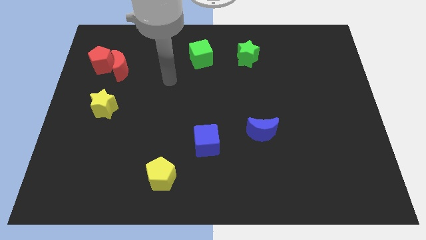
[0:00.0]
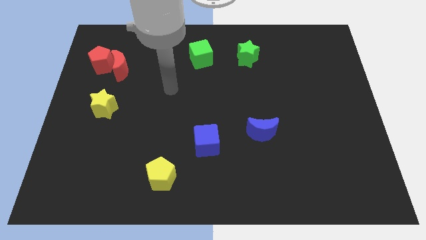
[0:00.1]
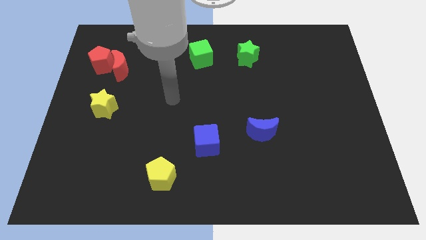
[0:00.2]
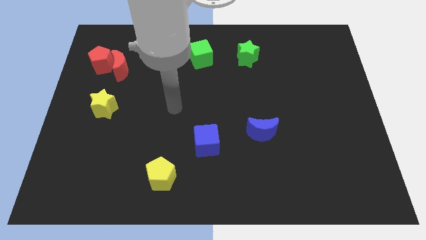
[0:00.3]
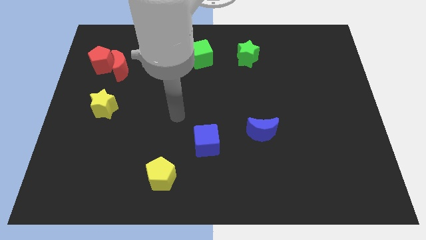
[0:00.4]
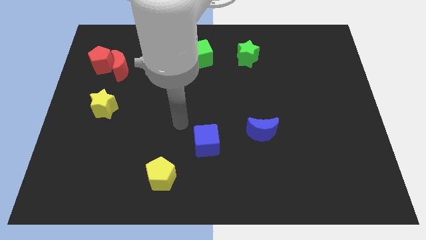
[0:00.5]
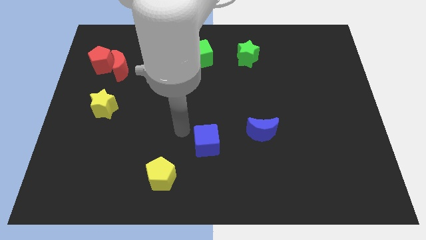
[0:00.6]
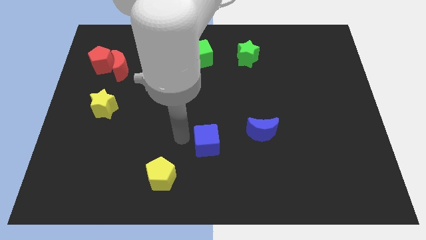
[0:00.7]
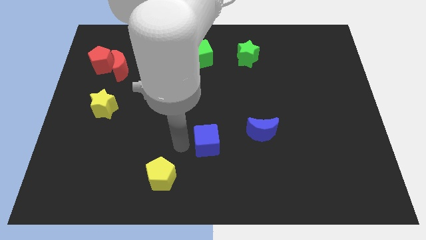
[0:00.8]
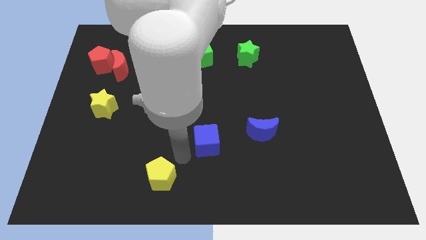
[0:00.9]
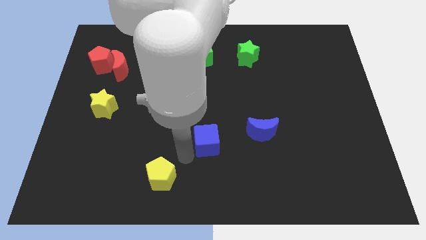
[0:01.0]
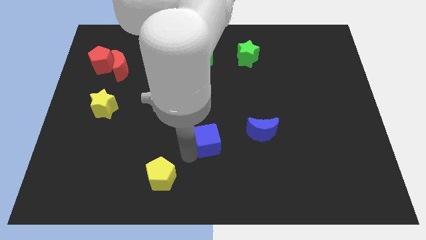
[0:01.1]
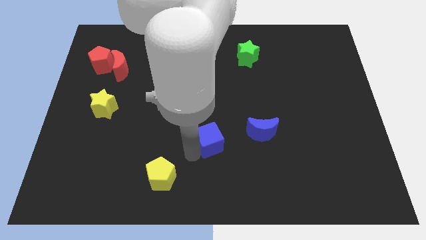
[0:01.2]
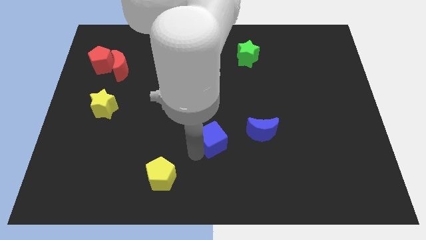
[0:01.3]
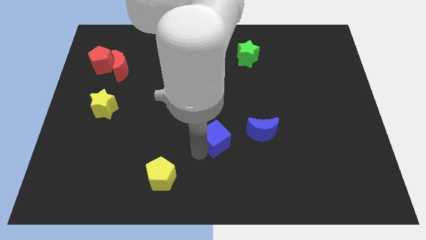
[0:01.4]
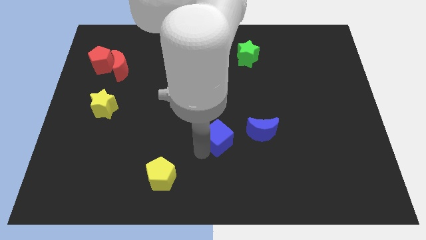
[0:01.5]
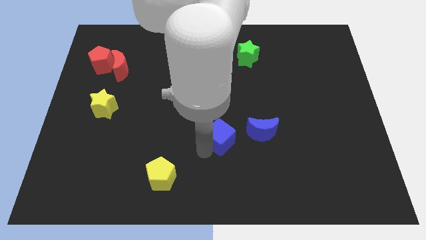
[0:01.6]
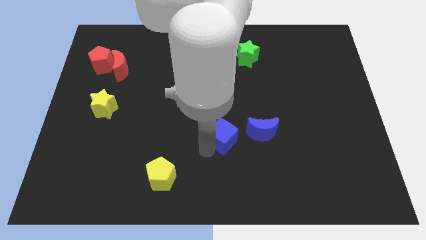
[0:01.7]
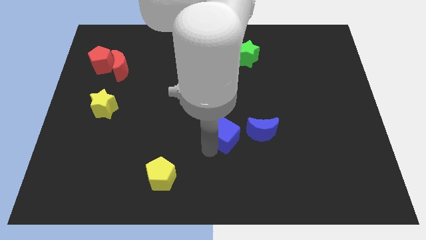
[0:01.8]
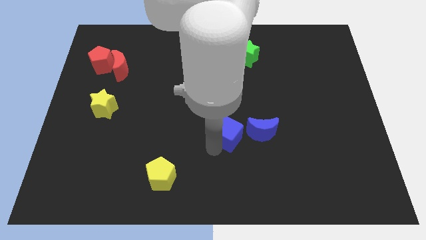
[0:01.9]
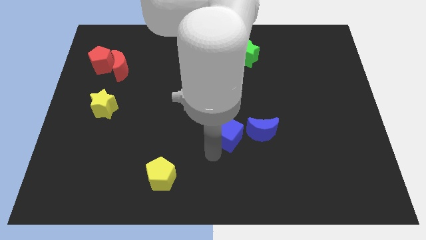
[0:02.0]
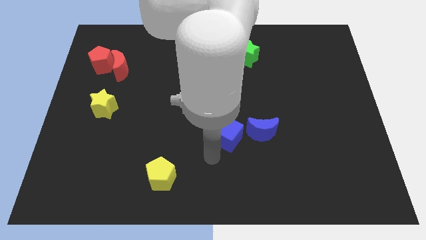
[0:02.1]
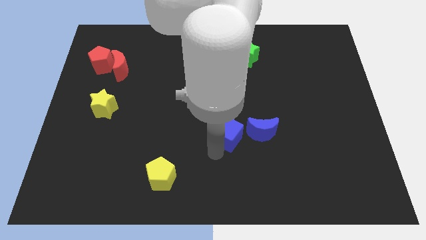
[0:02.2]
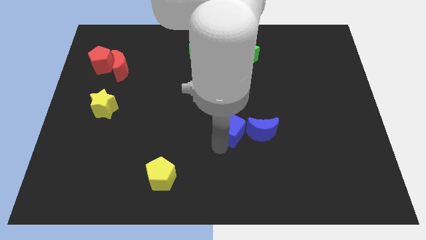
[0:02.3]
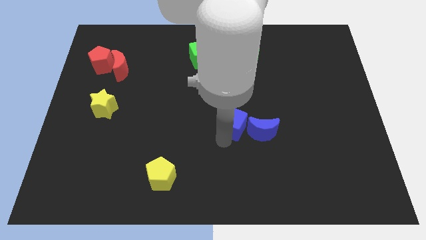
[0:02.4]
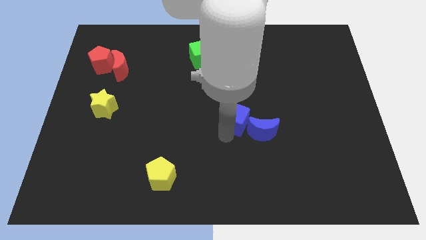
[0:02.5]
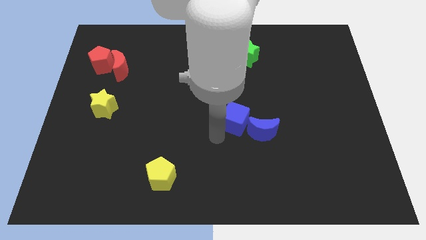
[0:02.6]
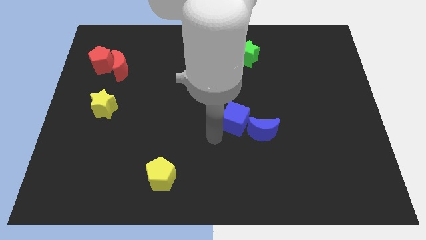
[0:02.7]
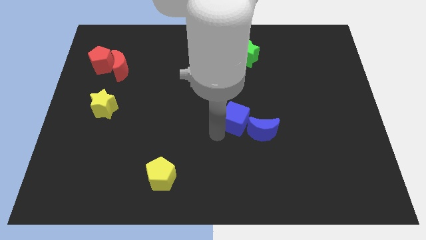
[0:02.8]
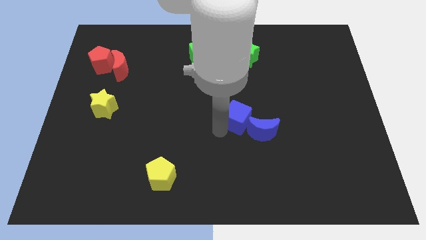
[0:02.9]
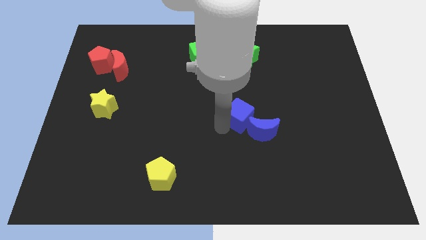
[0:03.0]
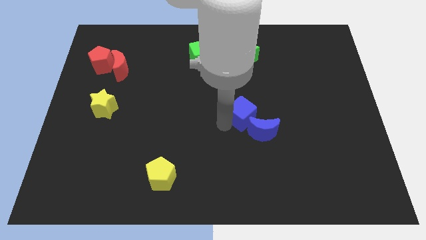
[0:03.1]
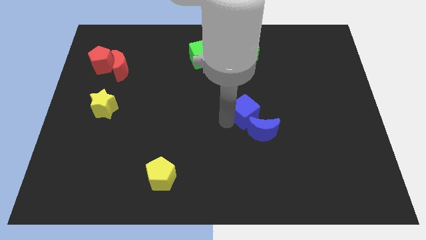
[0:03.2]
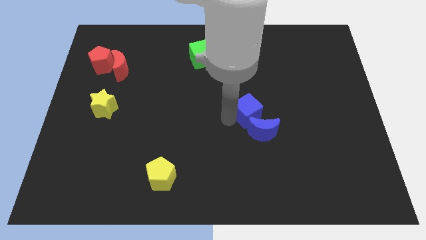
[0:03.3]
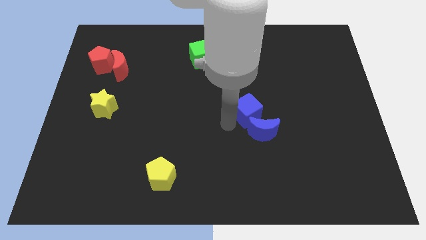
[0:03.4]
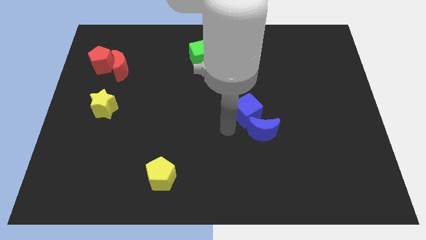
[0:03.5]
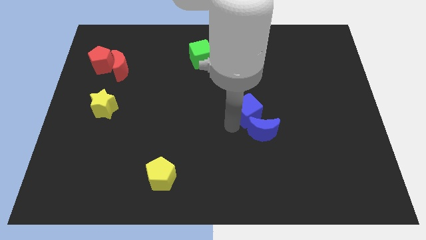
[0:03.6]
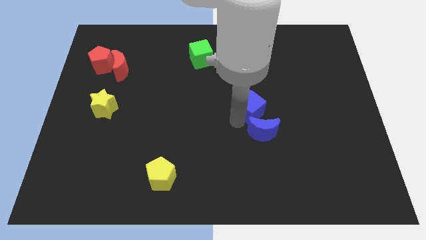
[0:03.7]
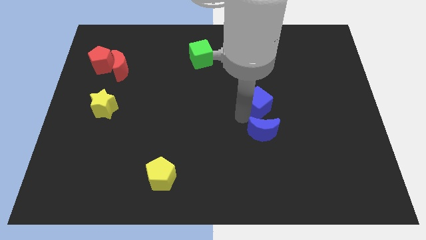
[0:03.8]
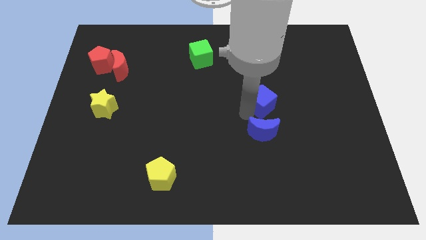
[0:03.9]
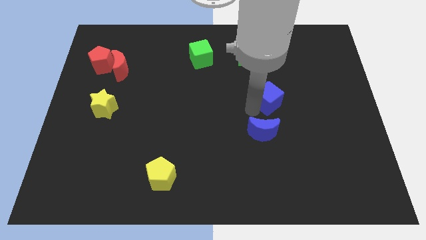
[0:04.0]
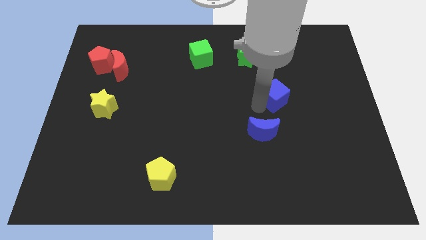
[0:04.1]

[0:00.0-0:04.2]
slide the blue cube diagonally upwards and to the right

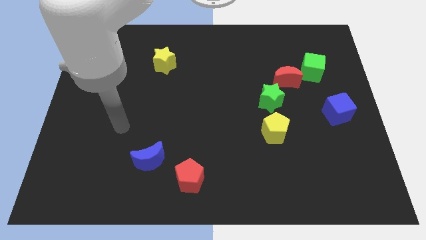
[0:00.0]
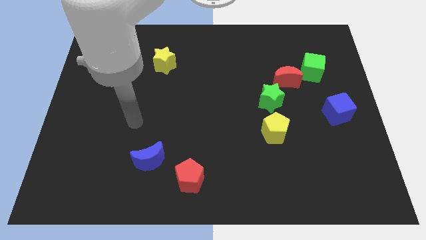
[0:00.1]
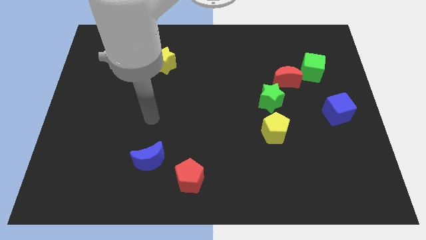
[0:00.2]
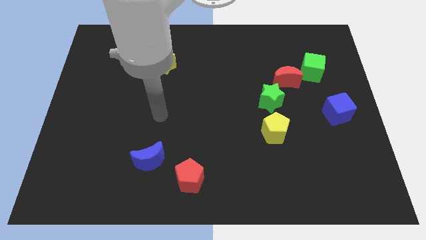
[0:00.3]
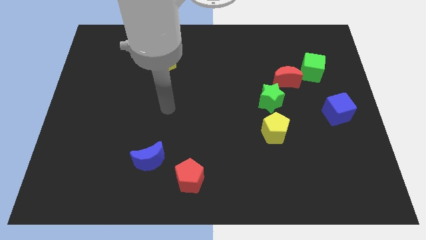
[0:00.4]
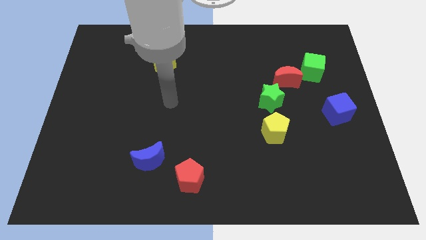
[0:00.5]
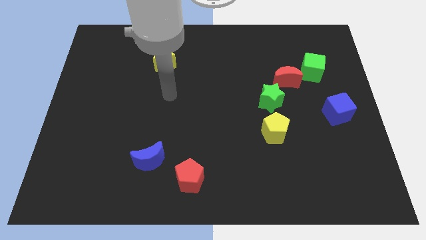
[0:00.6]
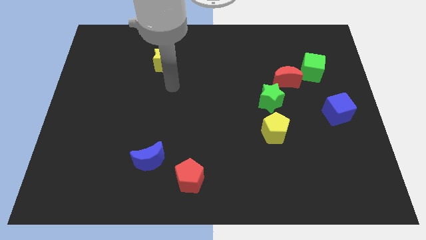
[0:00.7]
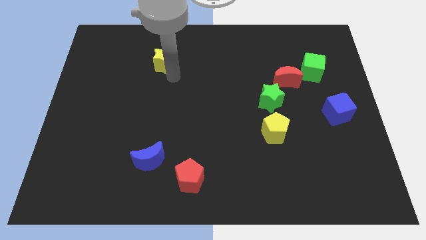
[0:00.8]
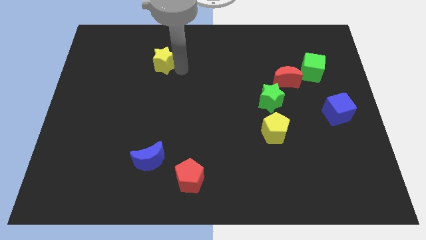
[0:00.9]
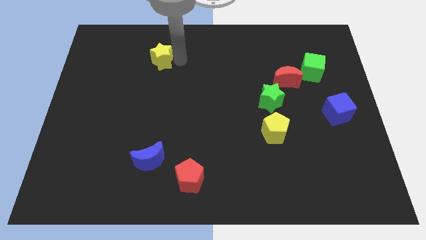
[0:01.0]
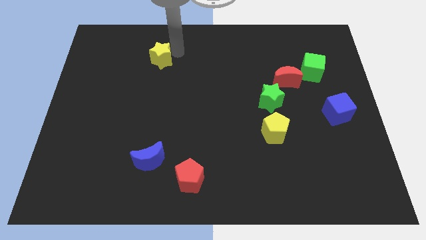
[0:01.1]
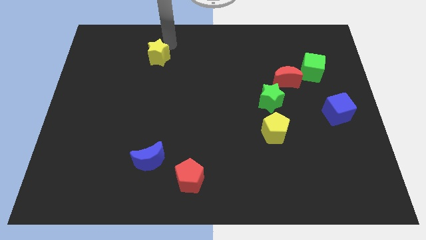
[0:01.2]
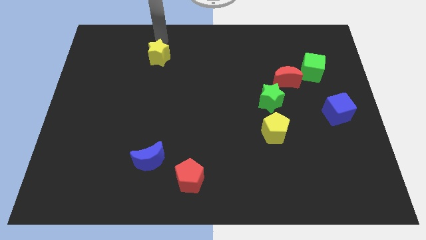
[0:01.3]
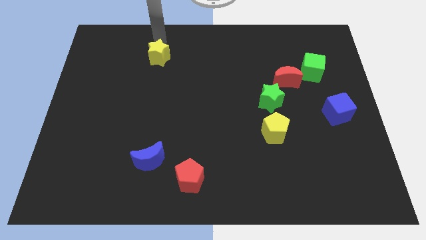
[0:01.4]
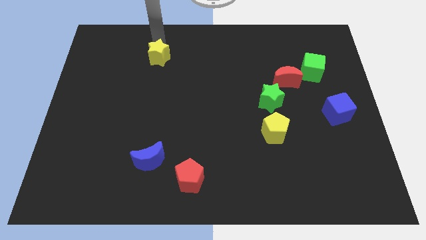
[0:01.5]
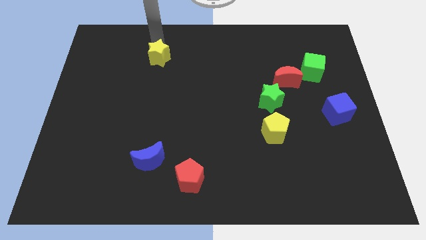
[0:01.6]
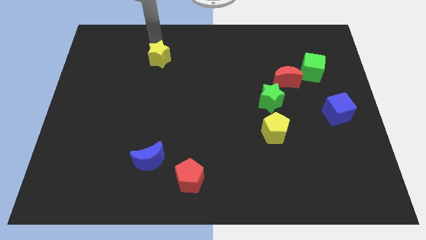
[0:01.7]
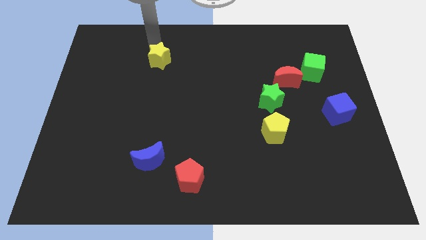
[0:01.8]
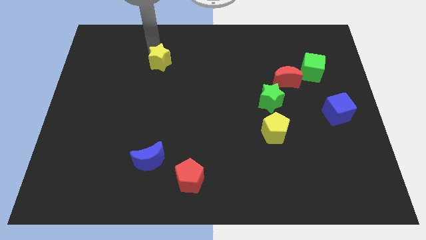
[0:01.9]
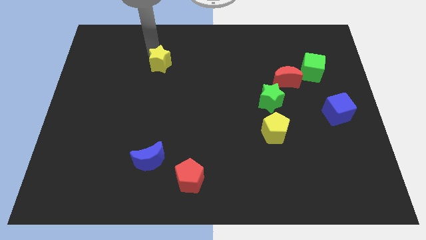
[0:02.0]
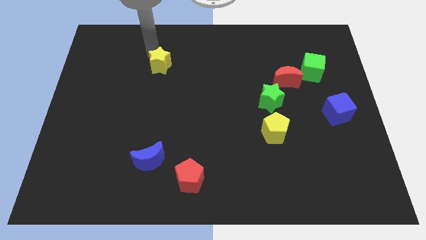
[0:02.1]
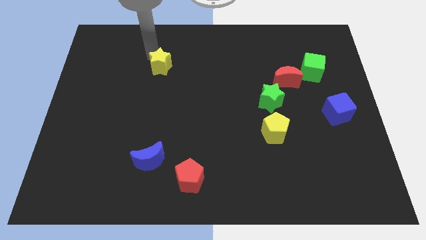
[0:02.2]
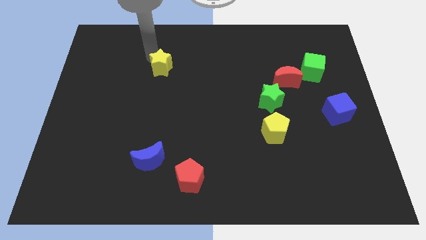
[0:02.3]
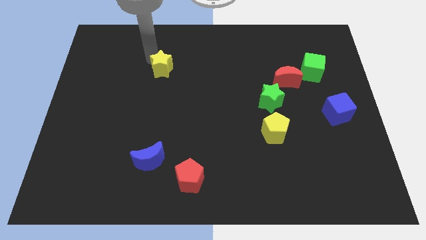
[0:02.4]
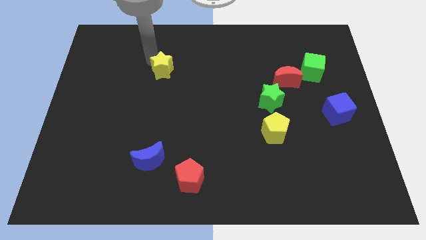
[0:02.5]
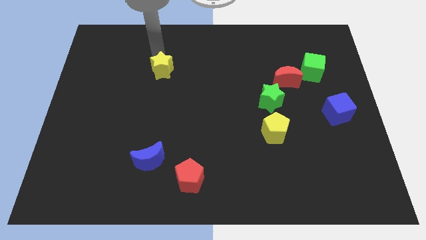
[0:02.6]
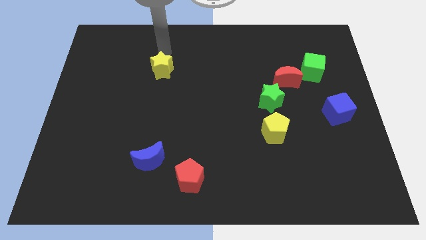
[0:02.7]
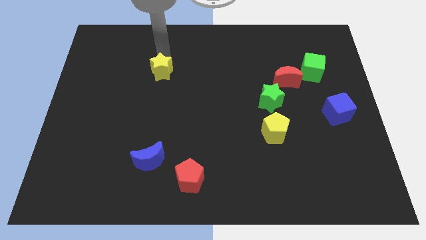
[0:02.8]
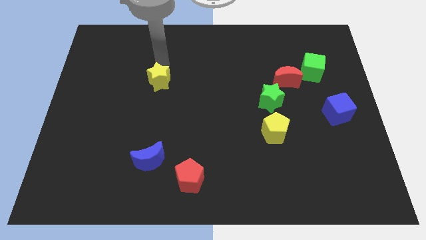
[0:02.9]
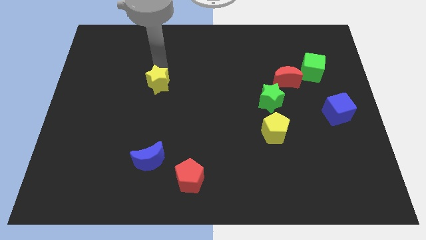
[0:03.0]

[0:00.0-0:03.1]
slide the yellow star downwards slightly

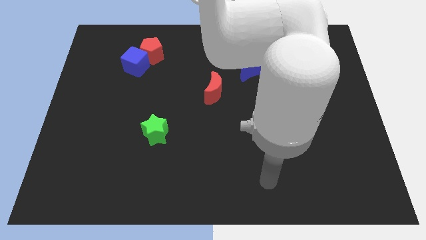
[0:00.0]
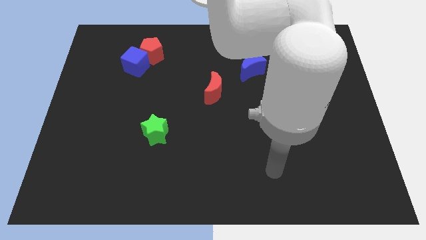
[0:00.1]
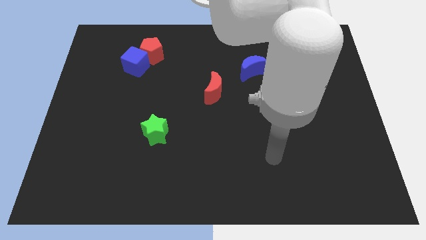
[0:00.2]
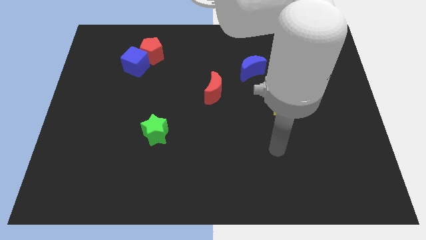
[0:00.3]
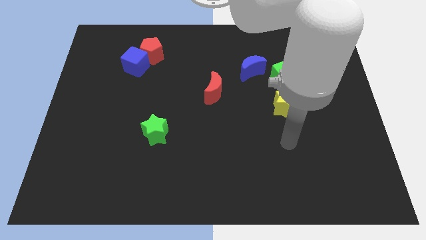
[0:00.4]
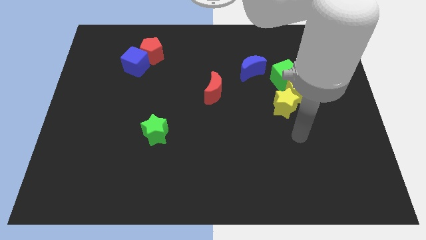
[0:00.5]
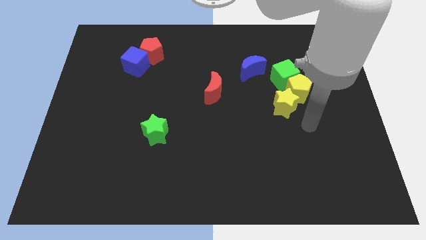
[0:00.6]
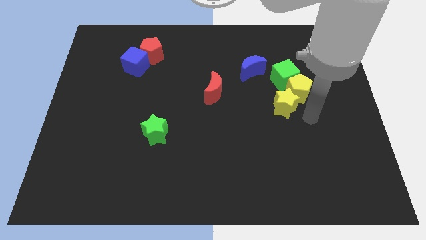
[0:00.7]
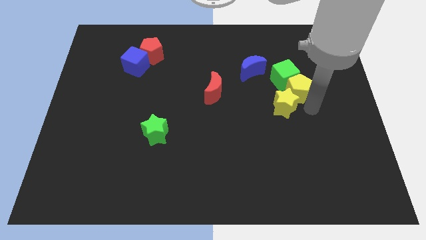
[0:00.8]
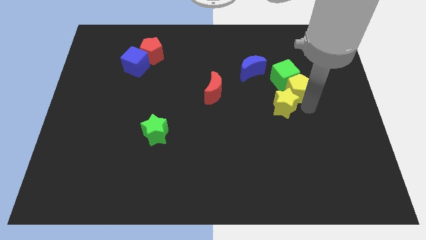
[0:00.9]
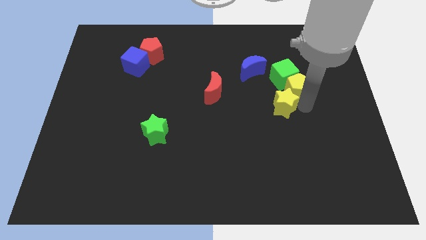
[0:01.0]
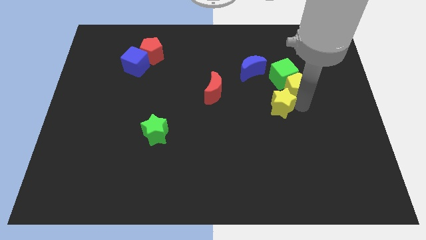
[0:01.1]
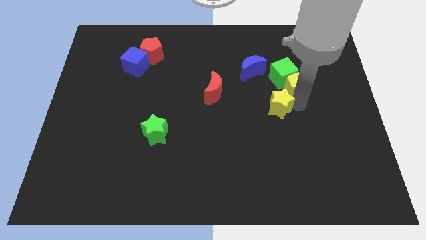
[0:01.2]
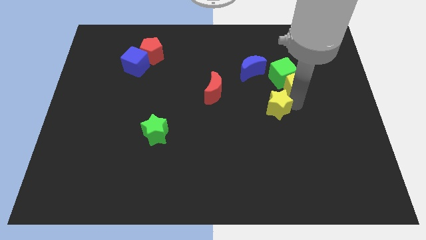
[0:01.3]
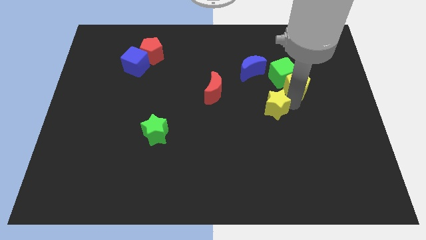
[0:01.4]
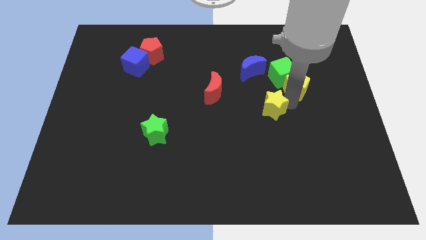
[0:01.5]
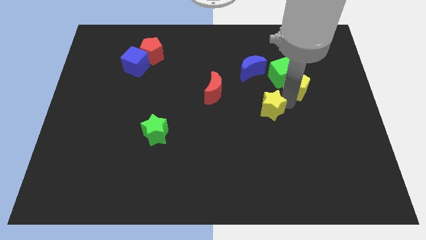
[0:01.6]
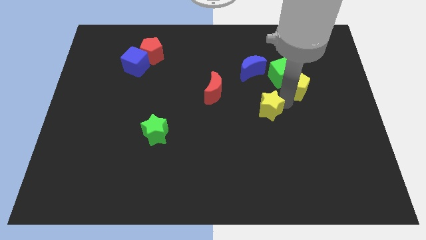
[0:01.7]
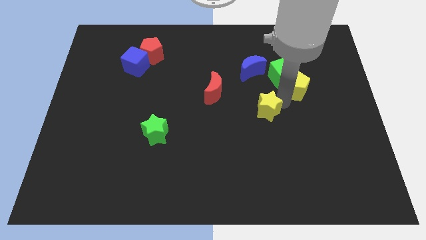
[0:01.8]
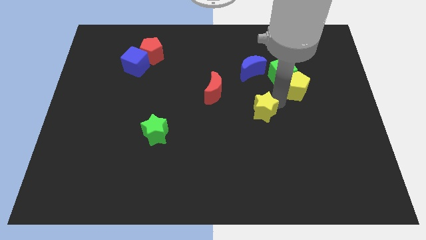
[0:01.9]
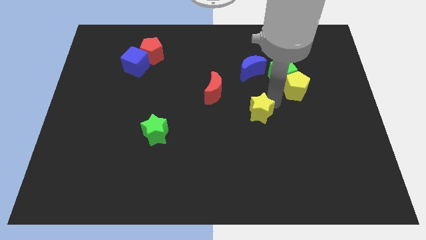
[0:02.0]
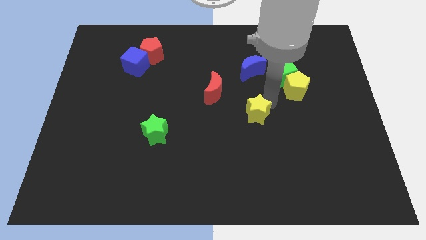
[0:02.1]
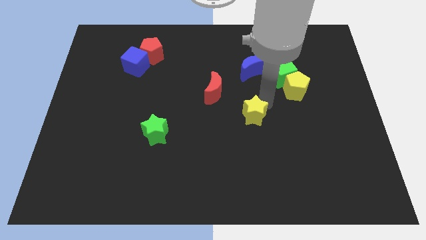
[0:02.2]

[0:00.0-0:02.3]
slide the yellow star a little to the left
